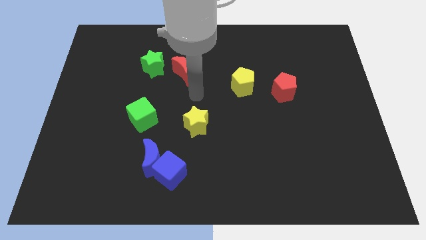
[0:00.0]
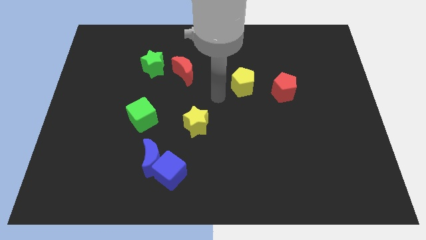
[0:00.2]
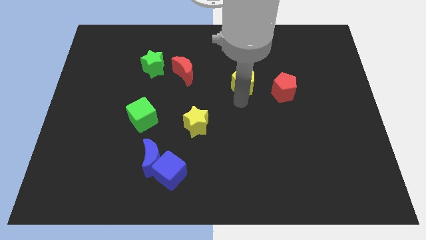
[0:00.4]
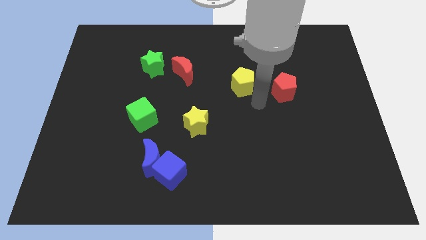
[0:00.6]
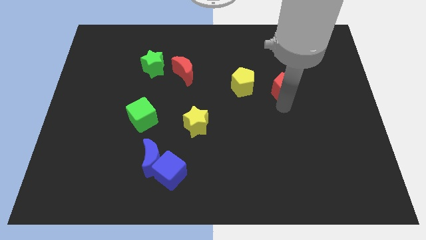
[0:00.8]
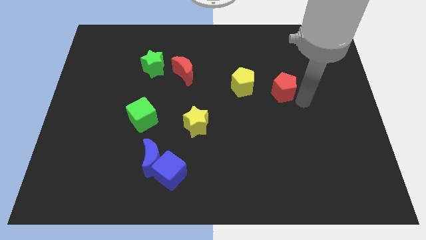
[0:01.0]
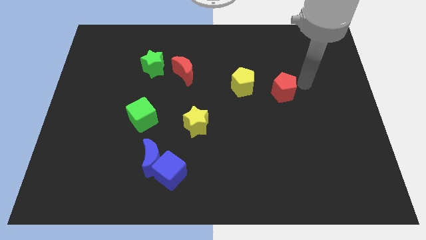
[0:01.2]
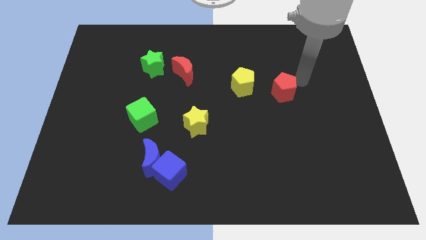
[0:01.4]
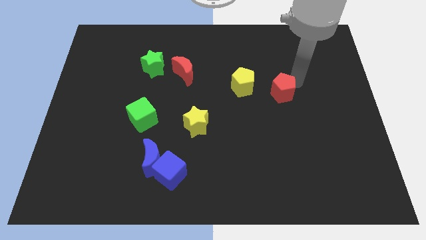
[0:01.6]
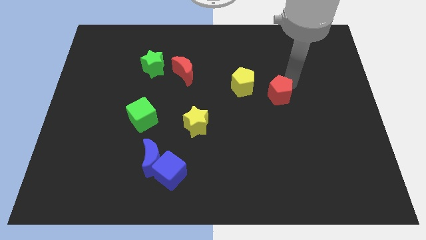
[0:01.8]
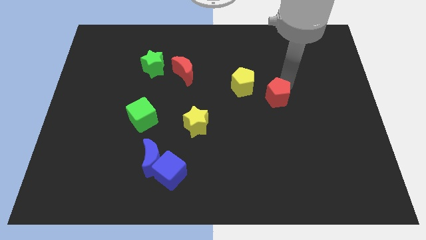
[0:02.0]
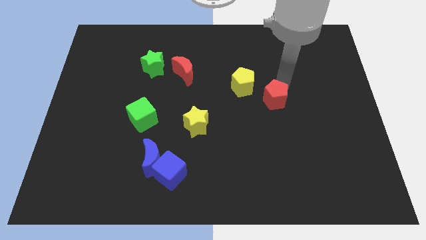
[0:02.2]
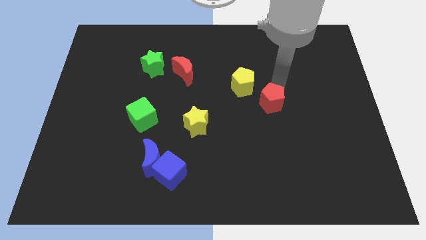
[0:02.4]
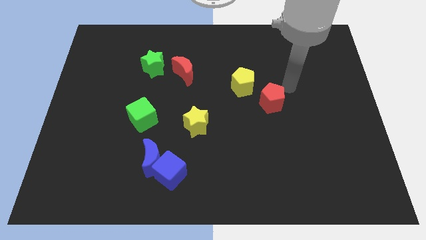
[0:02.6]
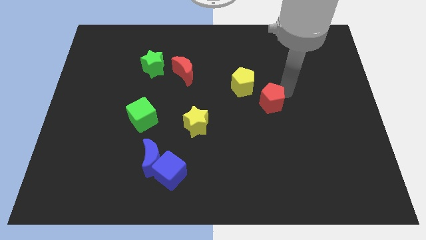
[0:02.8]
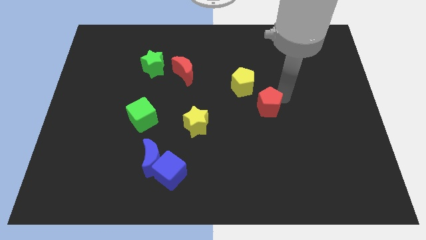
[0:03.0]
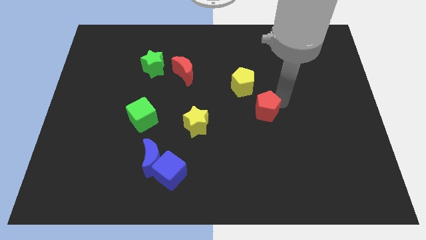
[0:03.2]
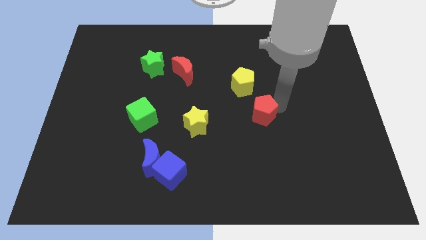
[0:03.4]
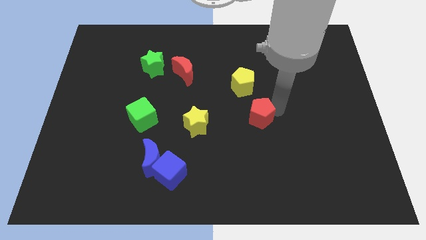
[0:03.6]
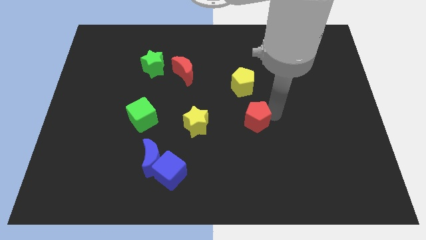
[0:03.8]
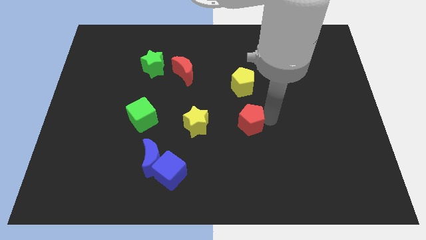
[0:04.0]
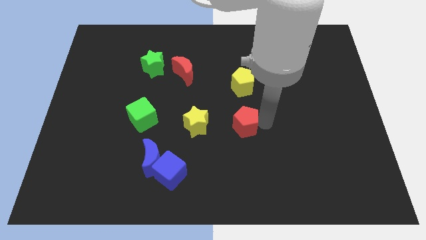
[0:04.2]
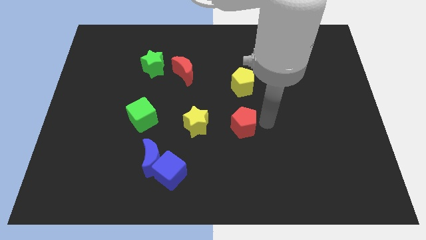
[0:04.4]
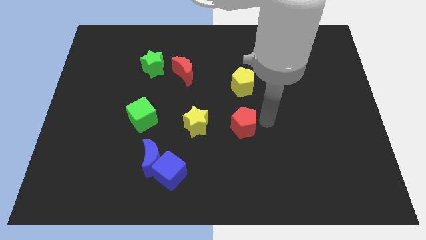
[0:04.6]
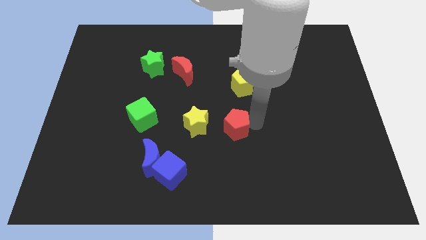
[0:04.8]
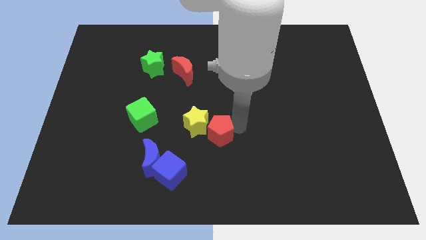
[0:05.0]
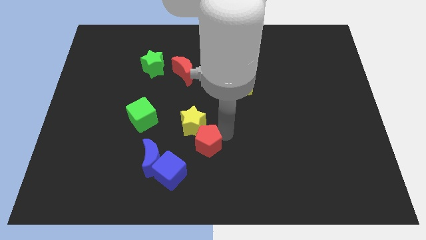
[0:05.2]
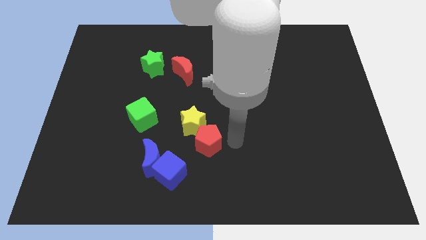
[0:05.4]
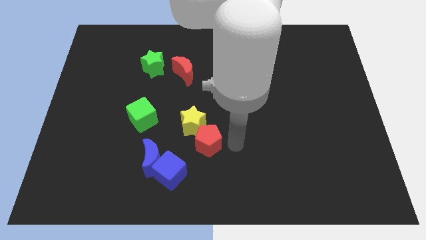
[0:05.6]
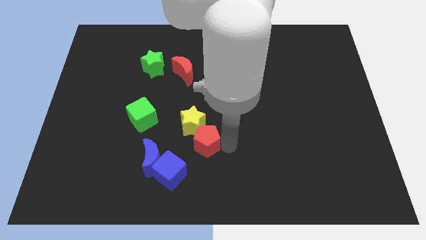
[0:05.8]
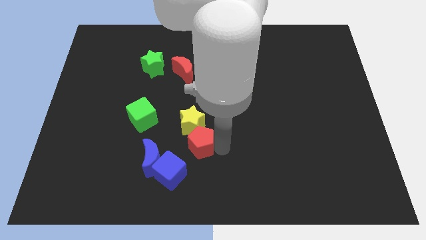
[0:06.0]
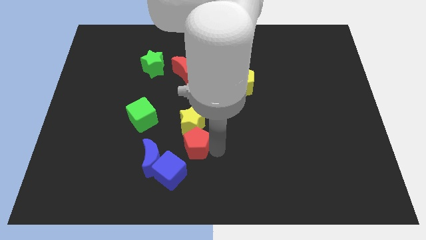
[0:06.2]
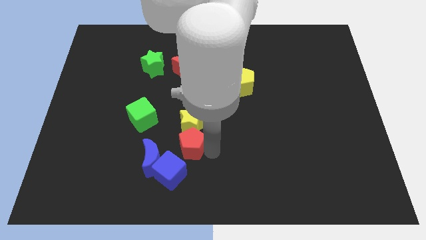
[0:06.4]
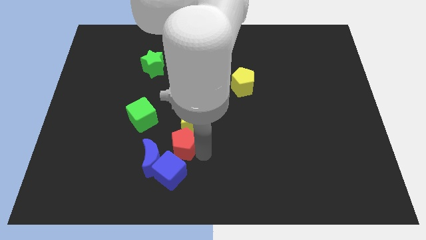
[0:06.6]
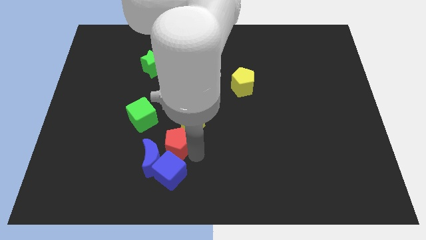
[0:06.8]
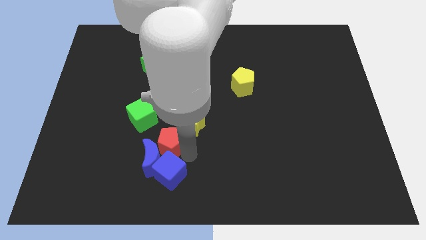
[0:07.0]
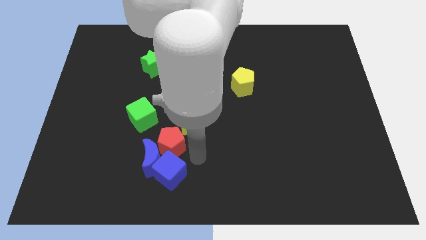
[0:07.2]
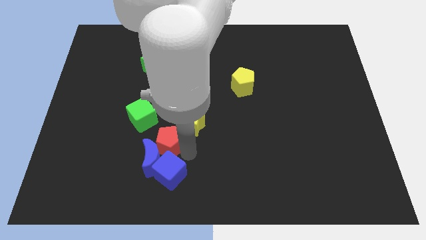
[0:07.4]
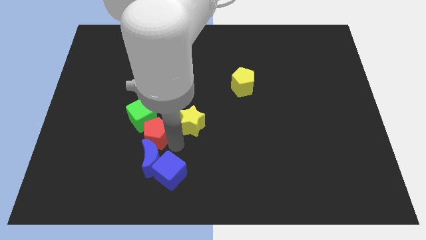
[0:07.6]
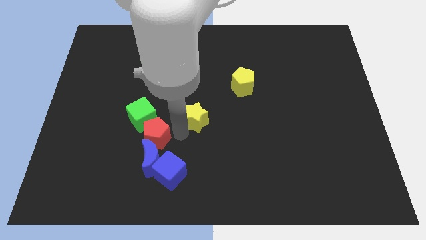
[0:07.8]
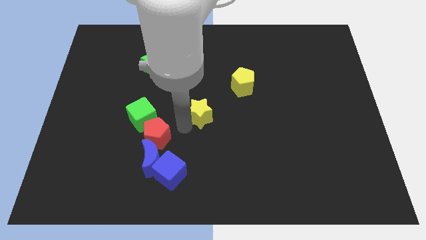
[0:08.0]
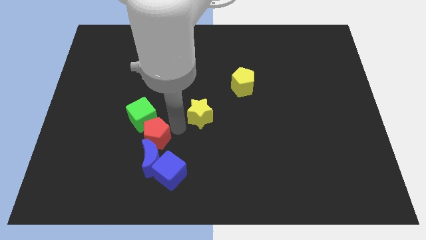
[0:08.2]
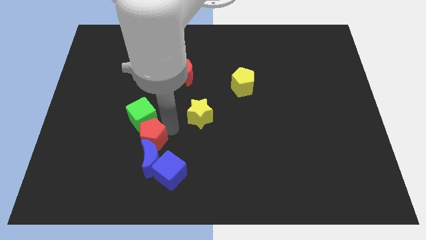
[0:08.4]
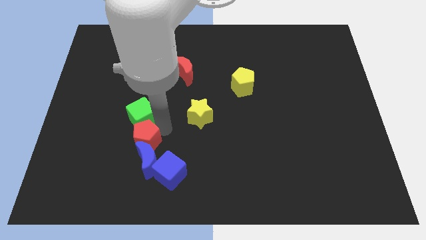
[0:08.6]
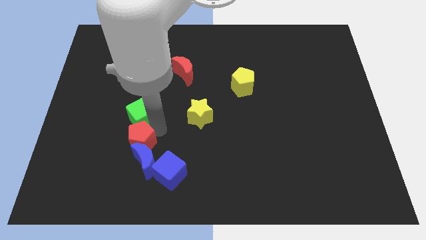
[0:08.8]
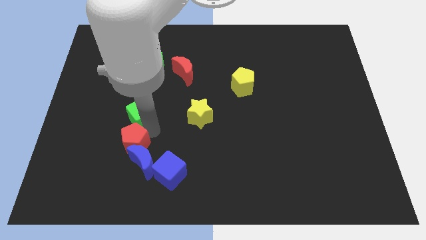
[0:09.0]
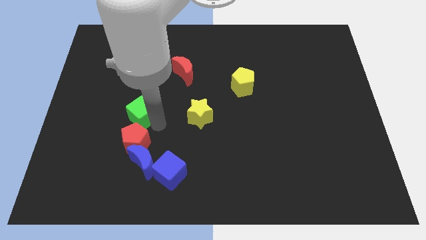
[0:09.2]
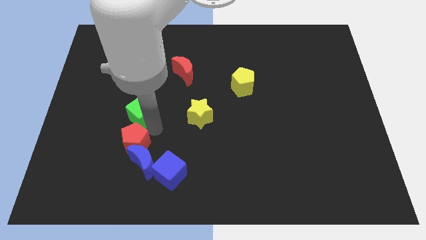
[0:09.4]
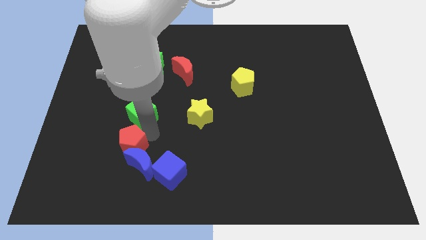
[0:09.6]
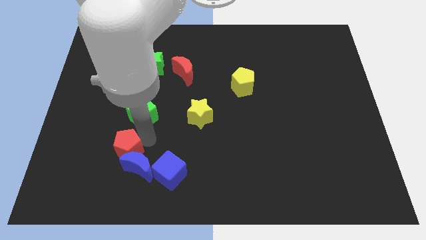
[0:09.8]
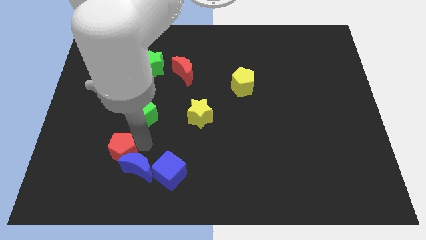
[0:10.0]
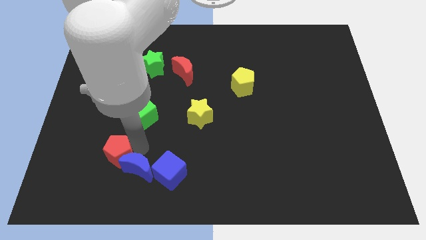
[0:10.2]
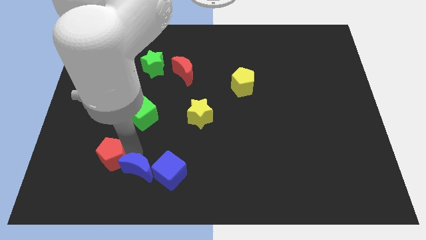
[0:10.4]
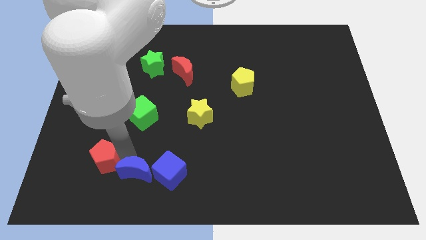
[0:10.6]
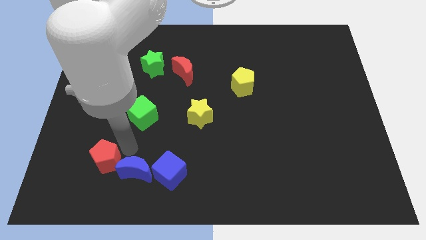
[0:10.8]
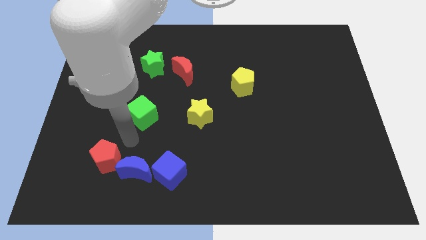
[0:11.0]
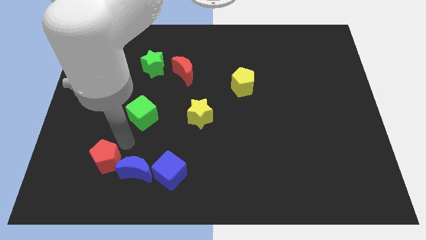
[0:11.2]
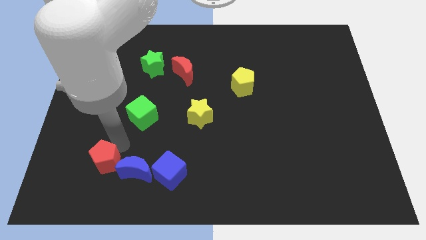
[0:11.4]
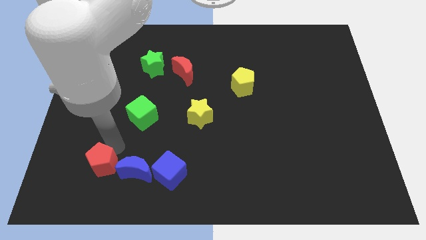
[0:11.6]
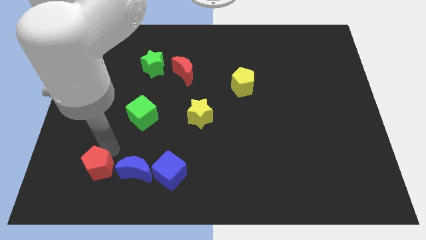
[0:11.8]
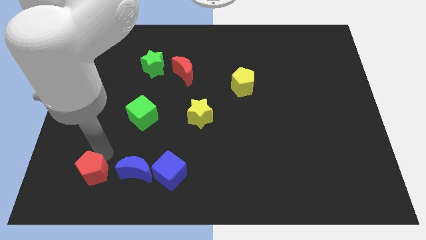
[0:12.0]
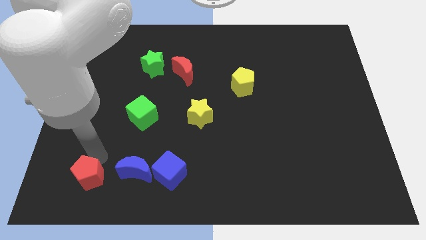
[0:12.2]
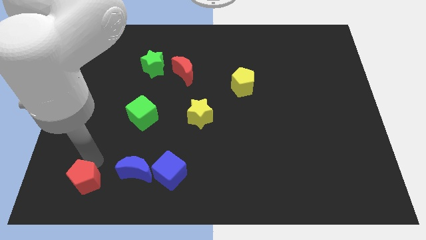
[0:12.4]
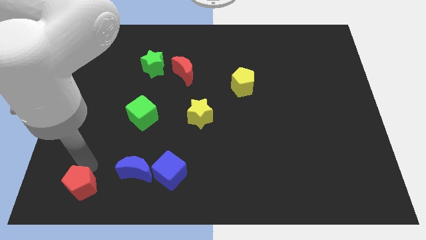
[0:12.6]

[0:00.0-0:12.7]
put the red pentagon to the bottom left corner
